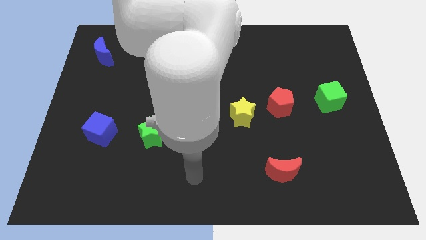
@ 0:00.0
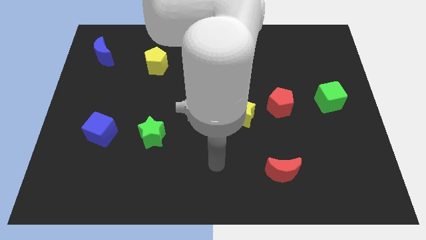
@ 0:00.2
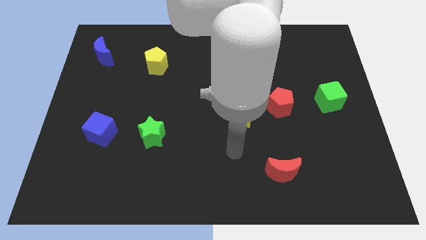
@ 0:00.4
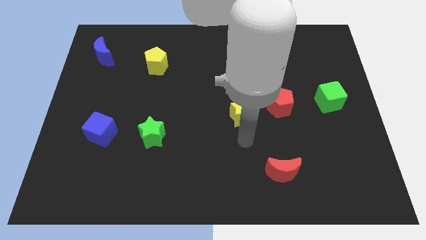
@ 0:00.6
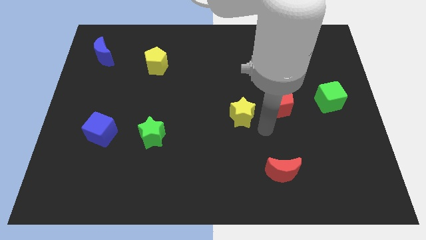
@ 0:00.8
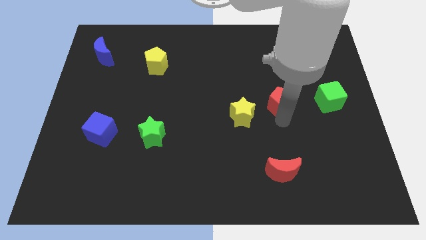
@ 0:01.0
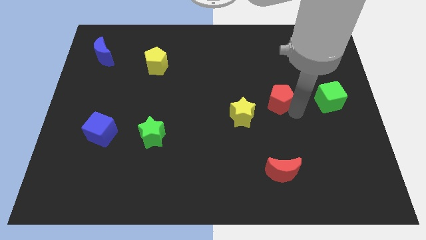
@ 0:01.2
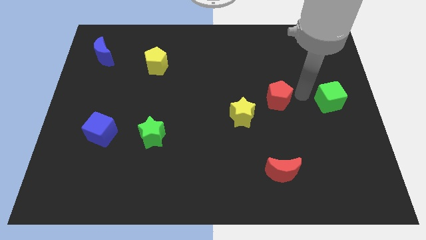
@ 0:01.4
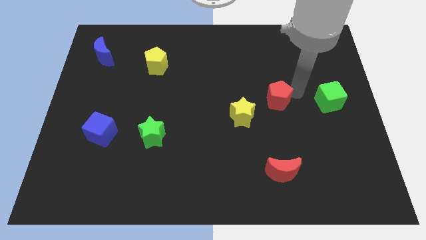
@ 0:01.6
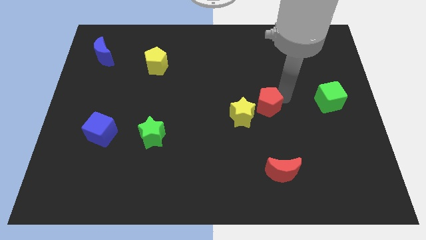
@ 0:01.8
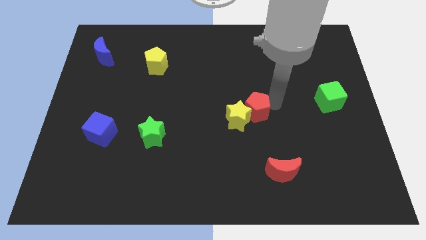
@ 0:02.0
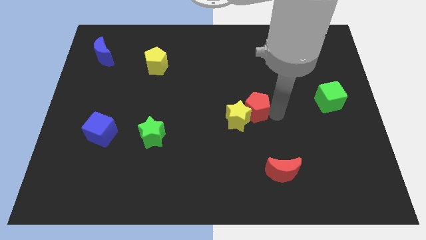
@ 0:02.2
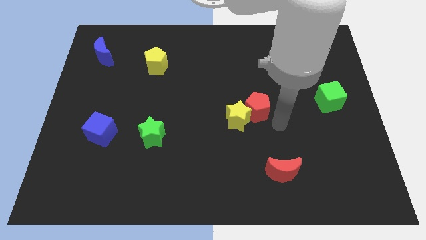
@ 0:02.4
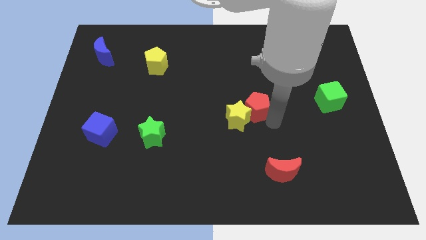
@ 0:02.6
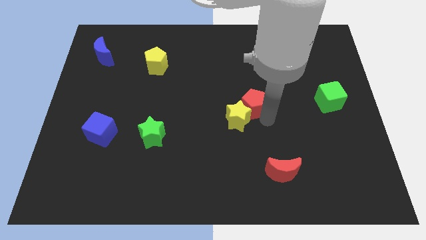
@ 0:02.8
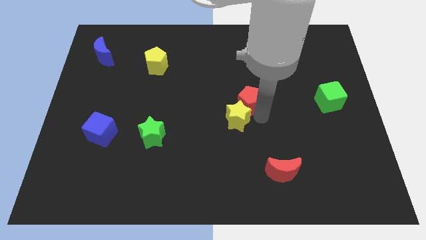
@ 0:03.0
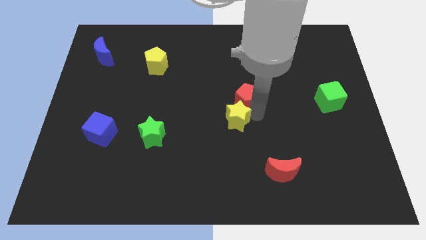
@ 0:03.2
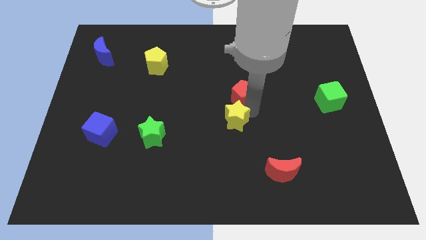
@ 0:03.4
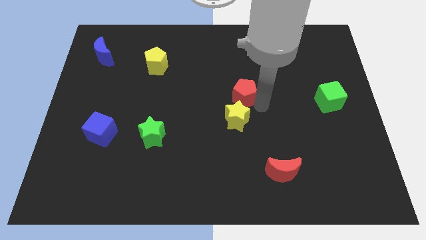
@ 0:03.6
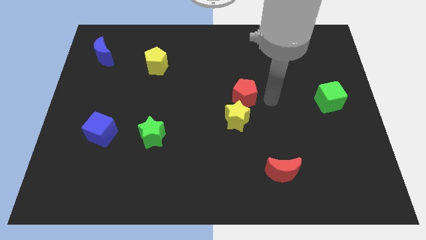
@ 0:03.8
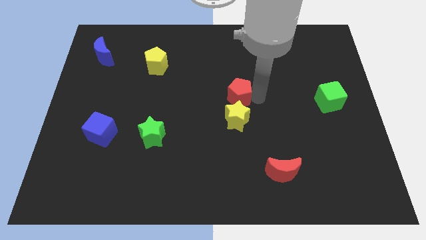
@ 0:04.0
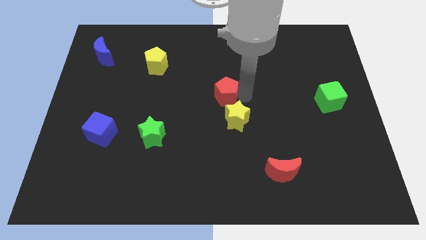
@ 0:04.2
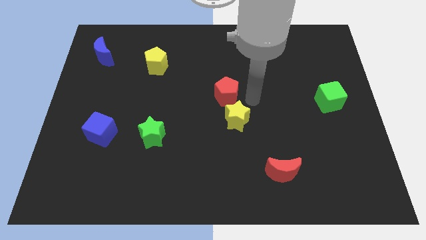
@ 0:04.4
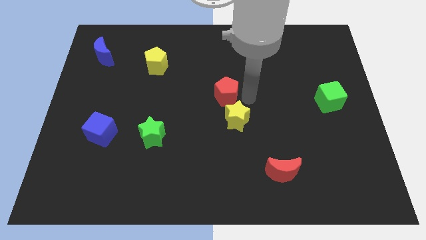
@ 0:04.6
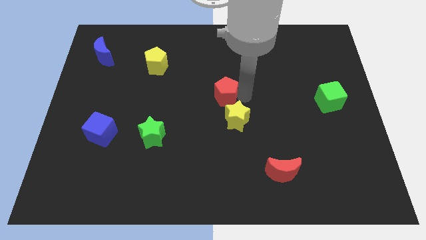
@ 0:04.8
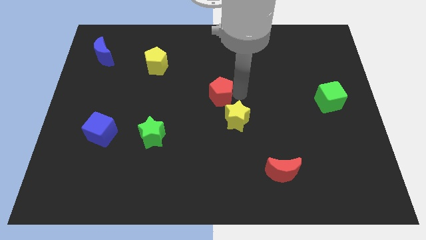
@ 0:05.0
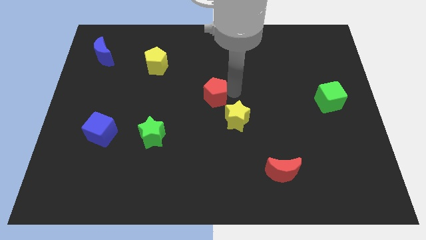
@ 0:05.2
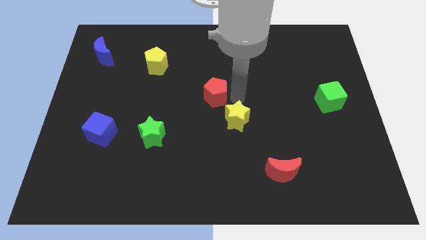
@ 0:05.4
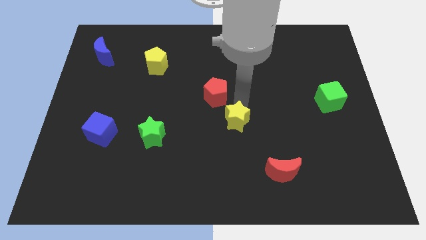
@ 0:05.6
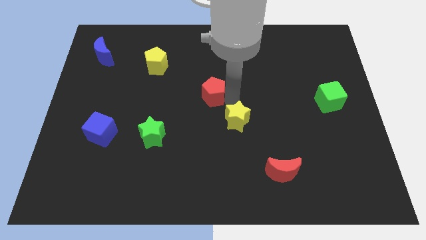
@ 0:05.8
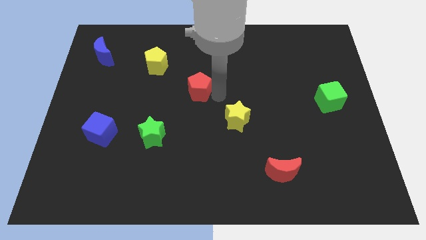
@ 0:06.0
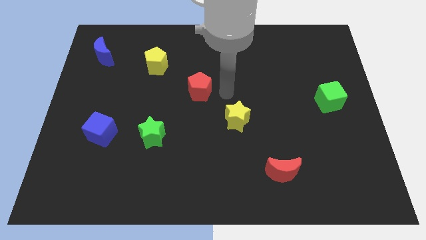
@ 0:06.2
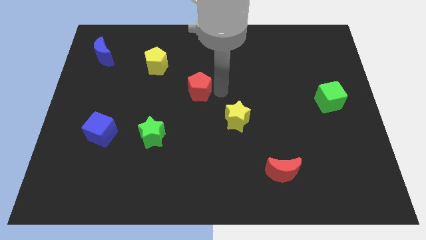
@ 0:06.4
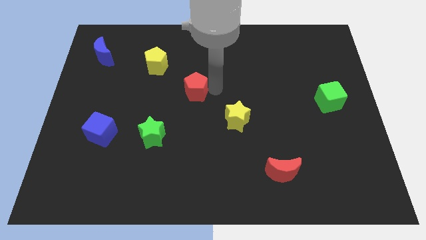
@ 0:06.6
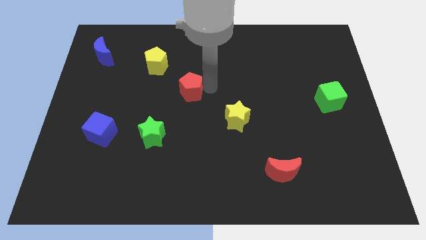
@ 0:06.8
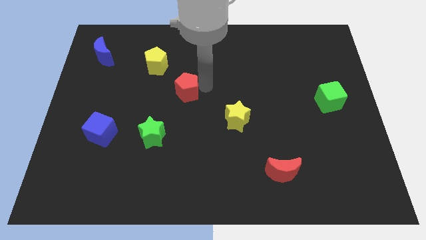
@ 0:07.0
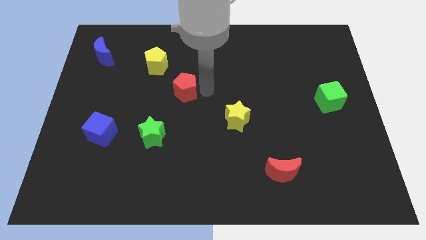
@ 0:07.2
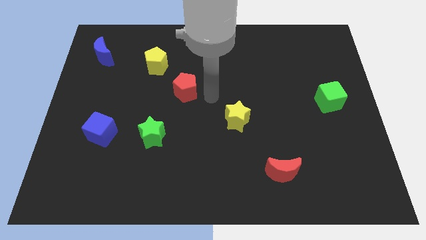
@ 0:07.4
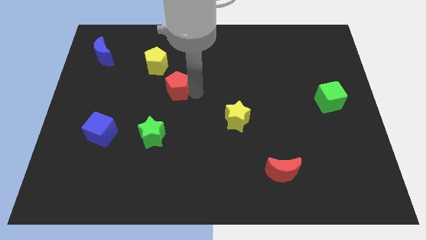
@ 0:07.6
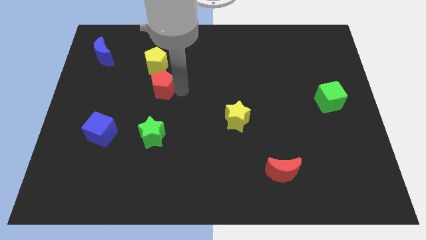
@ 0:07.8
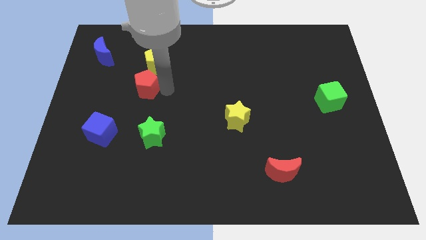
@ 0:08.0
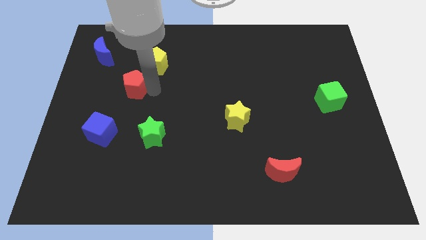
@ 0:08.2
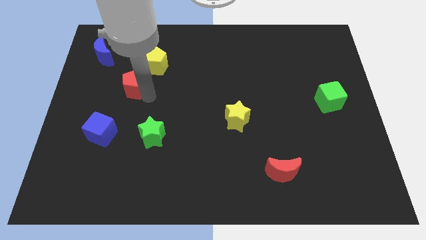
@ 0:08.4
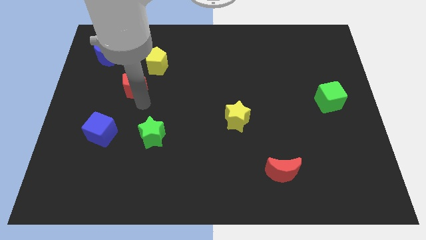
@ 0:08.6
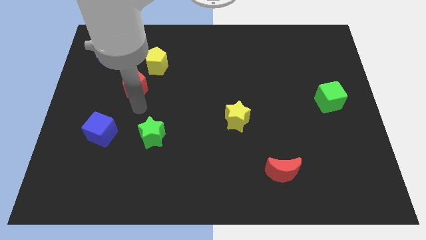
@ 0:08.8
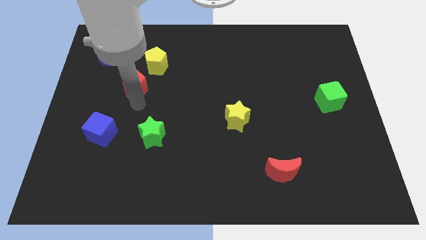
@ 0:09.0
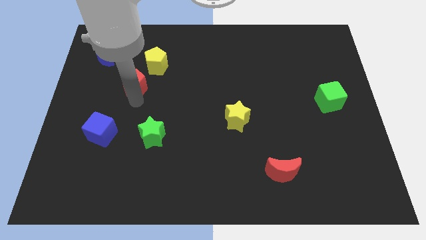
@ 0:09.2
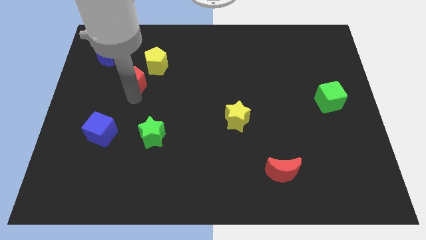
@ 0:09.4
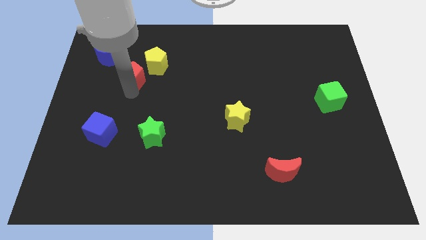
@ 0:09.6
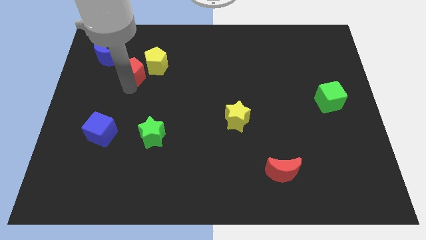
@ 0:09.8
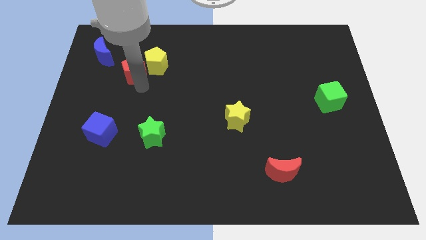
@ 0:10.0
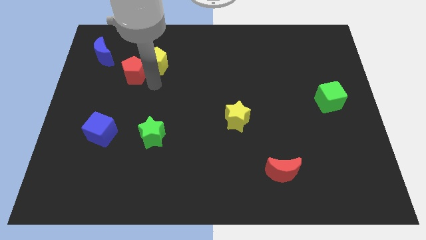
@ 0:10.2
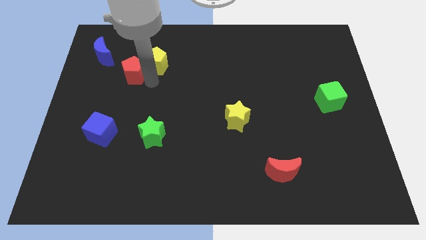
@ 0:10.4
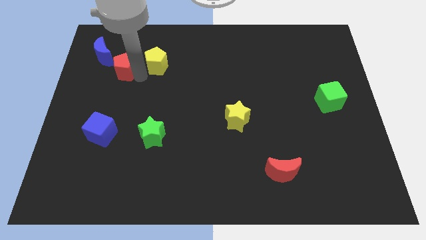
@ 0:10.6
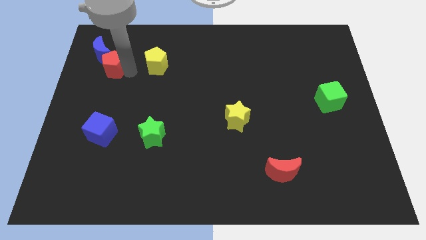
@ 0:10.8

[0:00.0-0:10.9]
move the red pentagon close to the blue moon

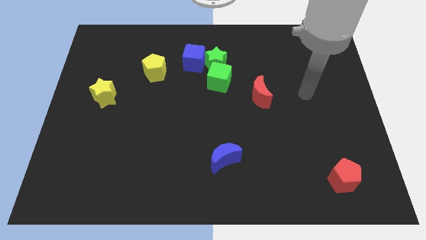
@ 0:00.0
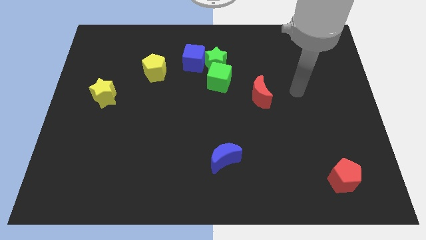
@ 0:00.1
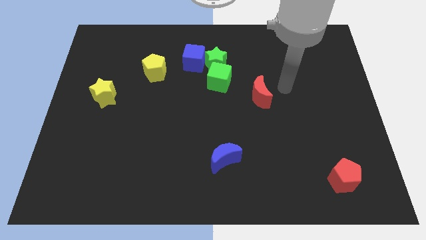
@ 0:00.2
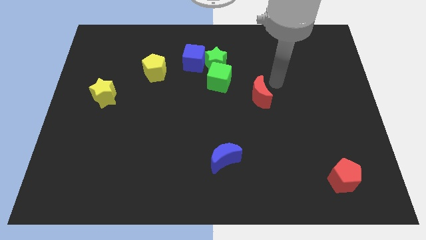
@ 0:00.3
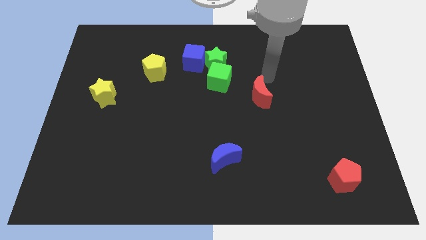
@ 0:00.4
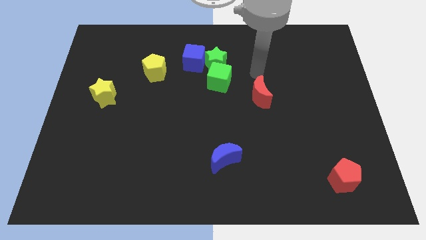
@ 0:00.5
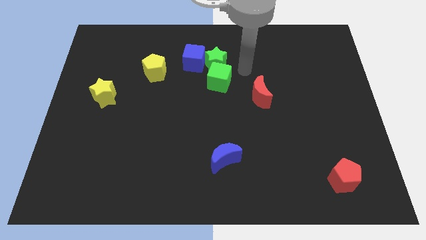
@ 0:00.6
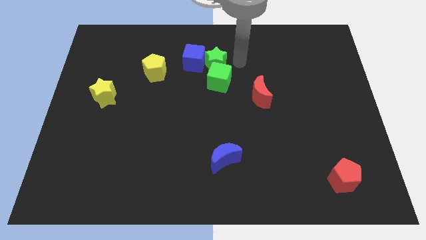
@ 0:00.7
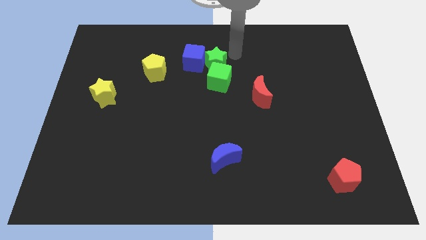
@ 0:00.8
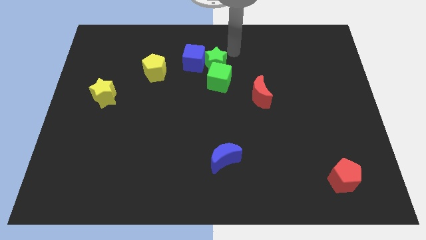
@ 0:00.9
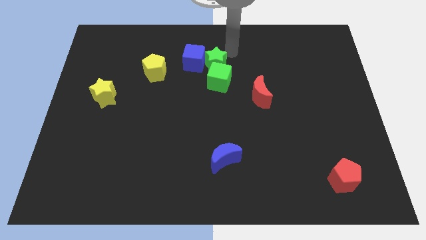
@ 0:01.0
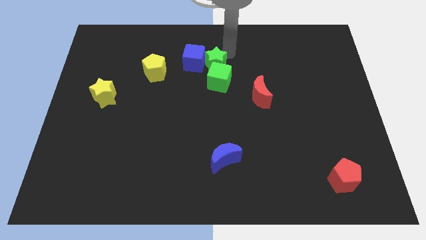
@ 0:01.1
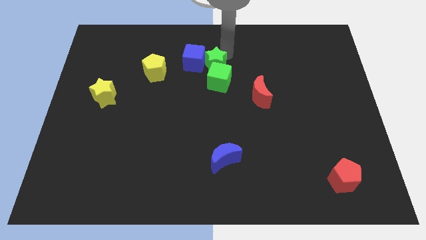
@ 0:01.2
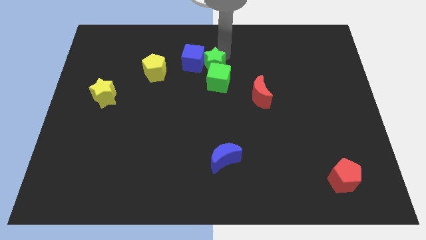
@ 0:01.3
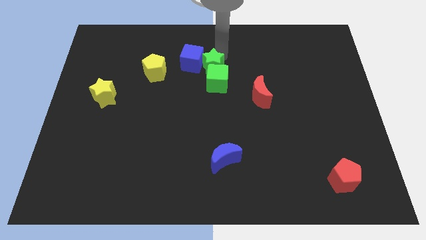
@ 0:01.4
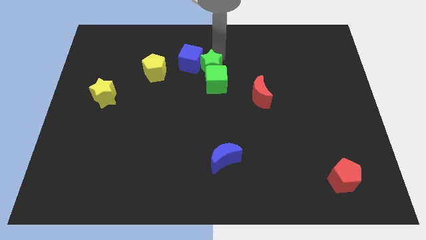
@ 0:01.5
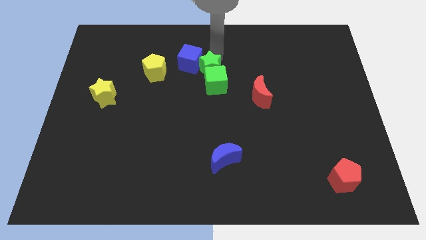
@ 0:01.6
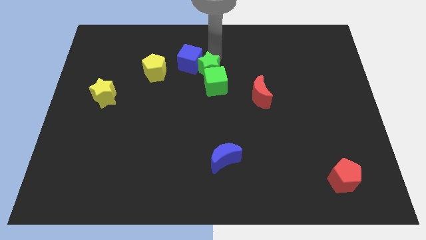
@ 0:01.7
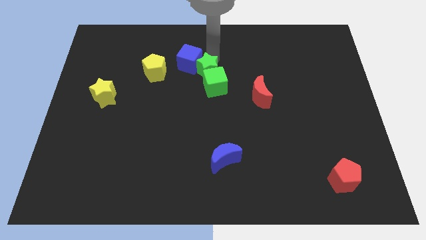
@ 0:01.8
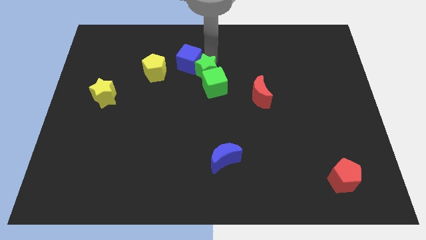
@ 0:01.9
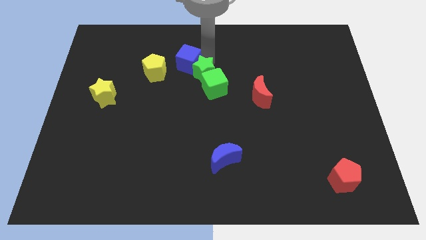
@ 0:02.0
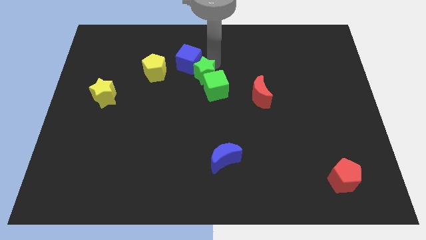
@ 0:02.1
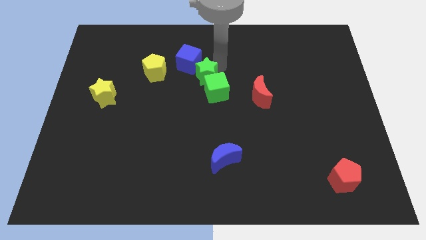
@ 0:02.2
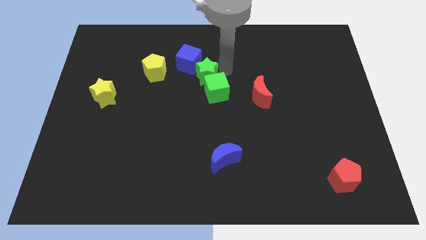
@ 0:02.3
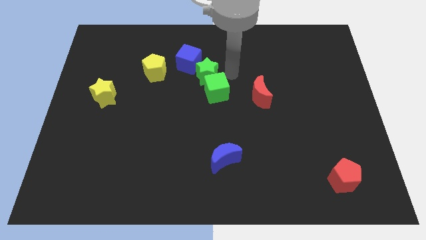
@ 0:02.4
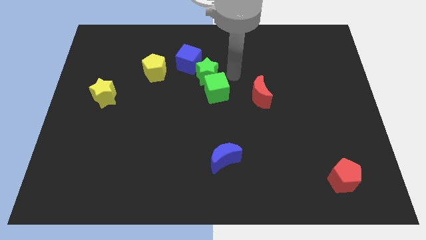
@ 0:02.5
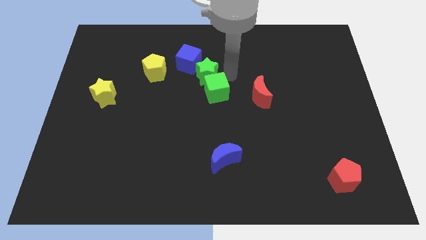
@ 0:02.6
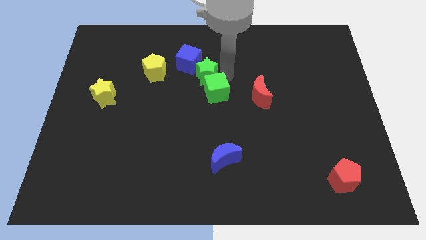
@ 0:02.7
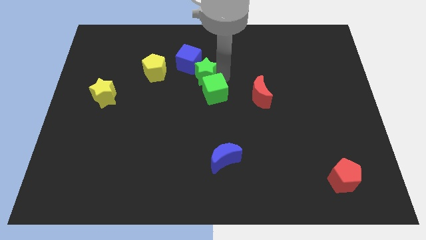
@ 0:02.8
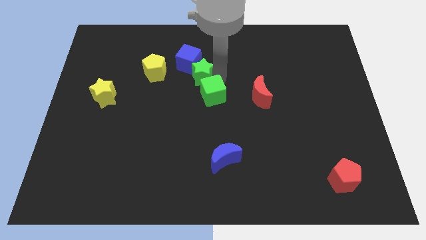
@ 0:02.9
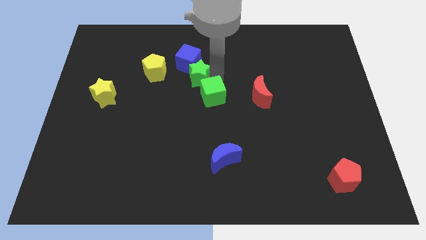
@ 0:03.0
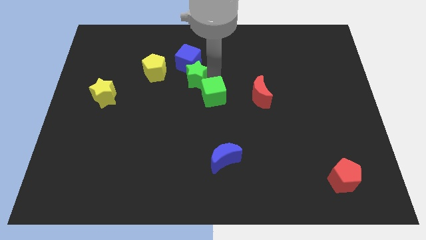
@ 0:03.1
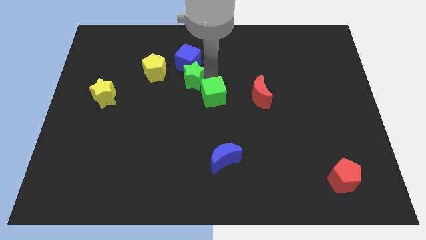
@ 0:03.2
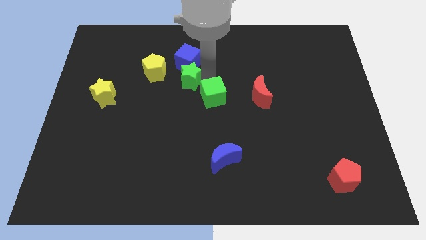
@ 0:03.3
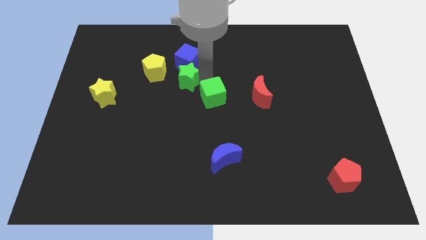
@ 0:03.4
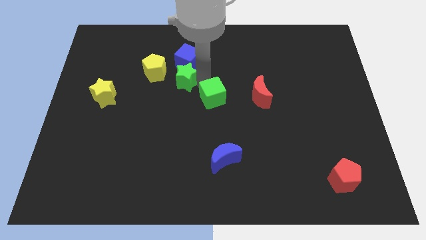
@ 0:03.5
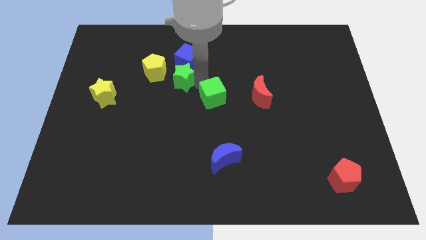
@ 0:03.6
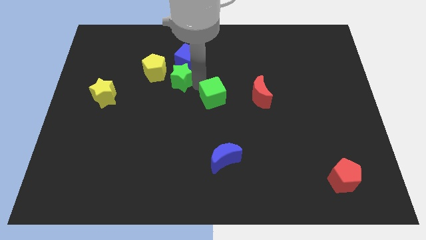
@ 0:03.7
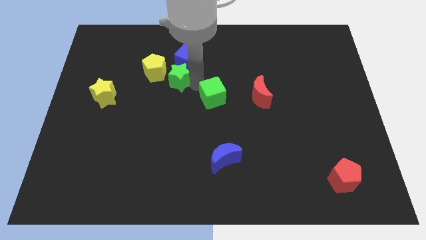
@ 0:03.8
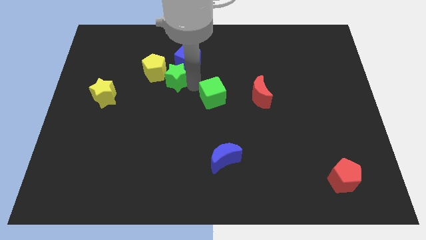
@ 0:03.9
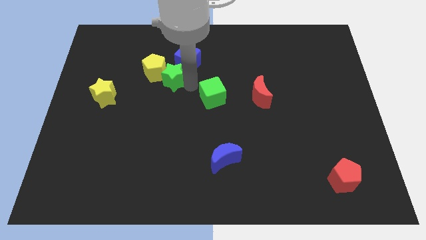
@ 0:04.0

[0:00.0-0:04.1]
push the green star towards the yellow pentagon
